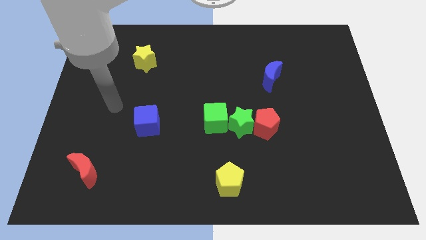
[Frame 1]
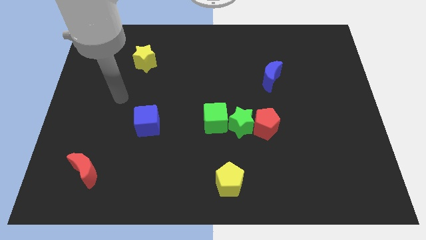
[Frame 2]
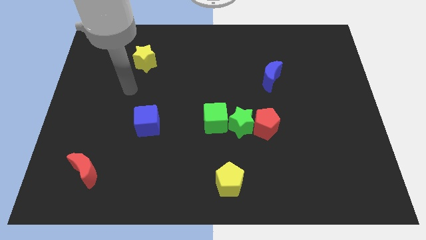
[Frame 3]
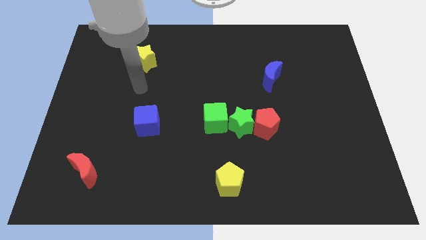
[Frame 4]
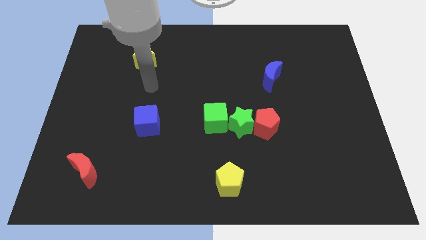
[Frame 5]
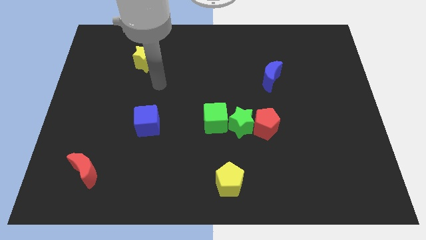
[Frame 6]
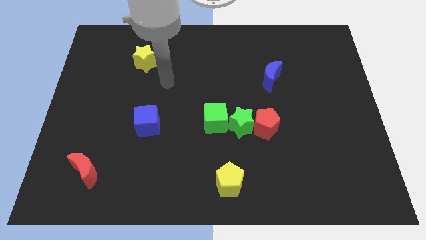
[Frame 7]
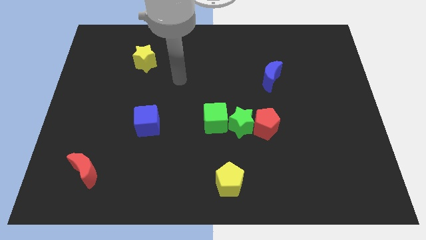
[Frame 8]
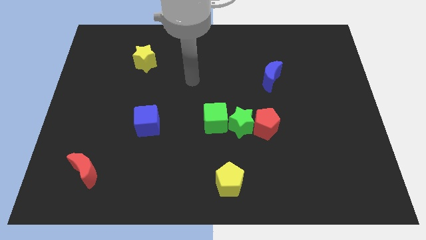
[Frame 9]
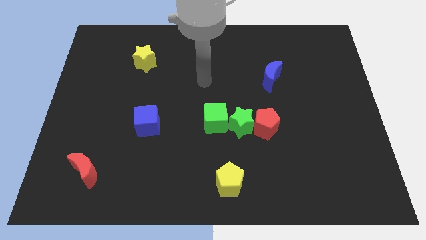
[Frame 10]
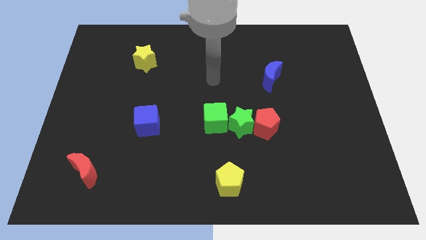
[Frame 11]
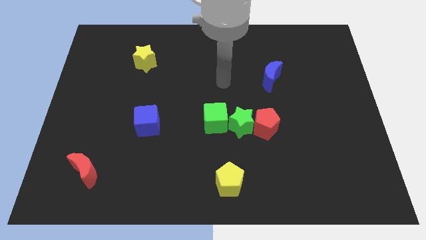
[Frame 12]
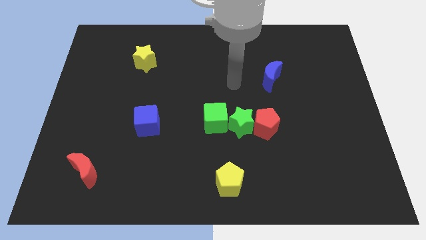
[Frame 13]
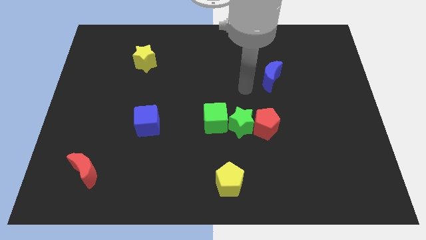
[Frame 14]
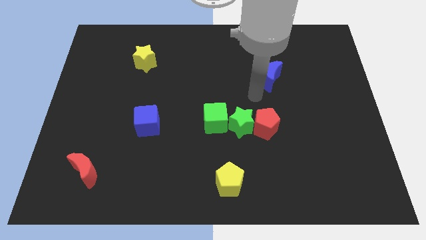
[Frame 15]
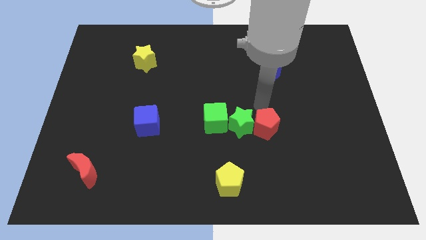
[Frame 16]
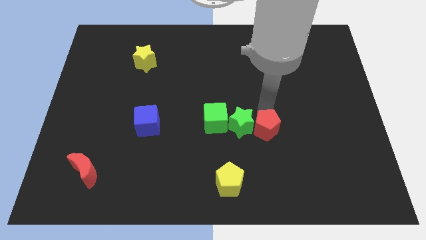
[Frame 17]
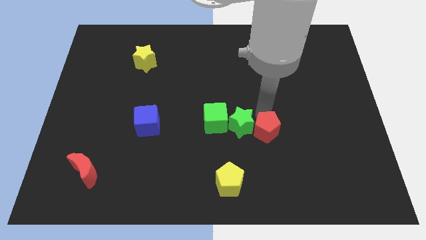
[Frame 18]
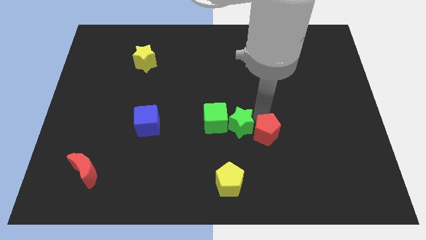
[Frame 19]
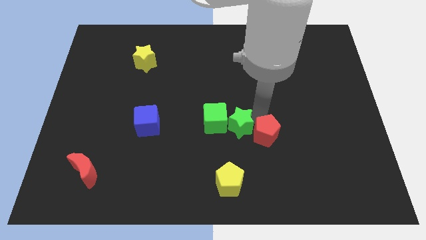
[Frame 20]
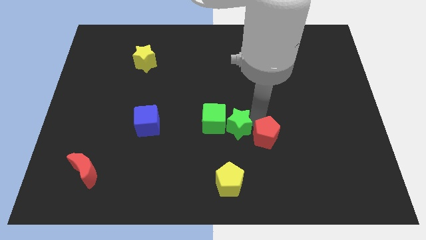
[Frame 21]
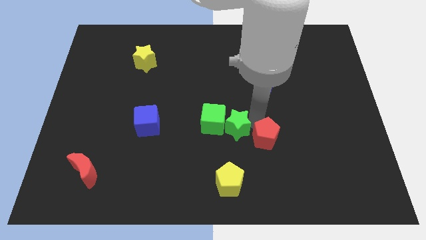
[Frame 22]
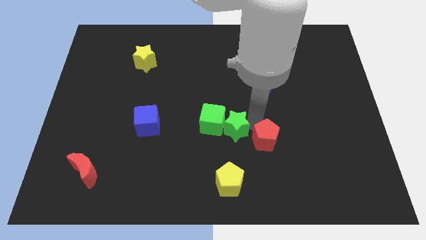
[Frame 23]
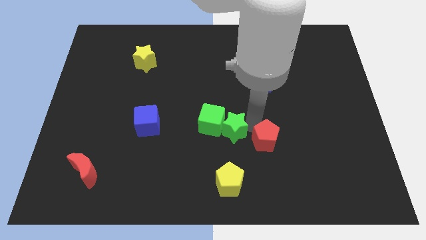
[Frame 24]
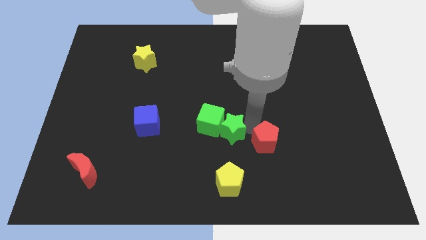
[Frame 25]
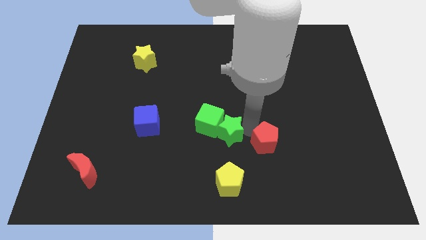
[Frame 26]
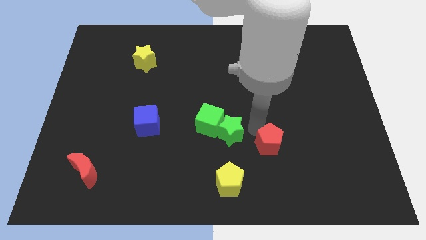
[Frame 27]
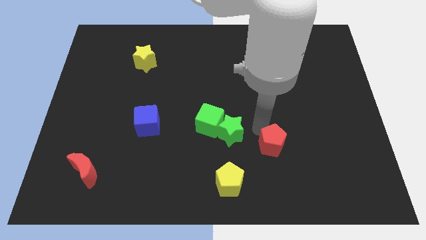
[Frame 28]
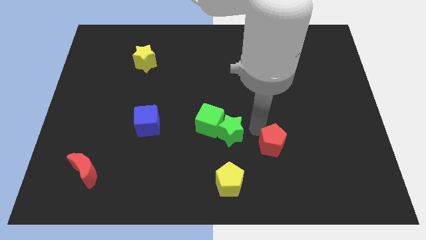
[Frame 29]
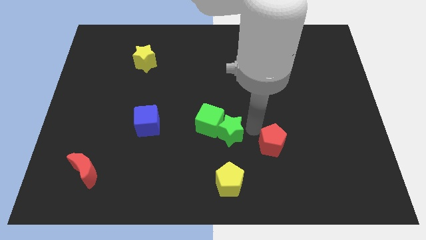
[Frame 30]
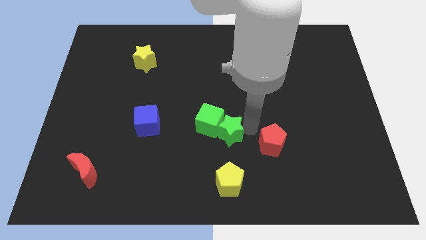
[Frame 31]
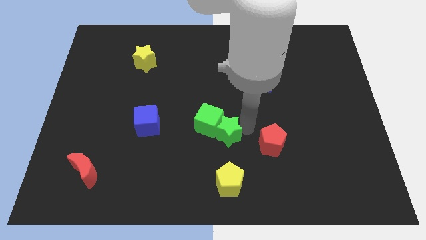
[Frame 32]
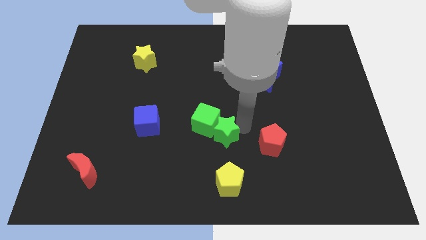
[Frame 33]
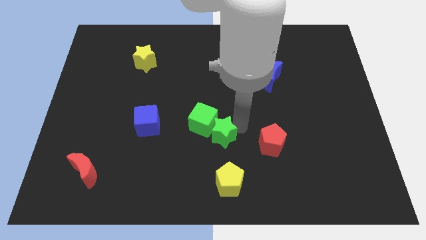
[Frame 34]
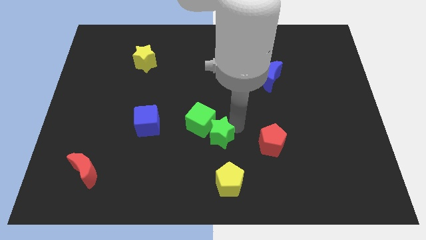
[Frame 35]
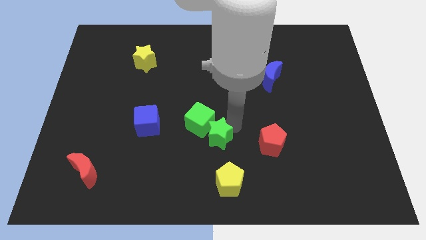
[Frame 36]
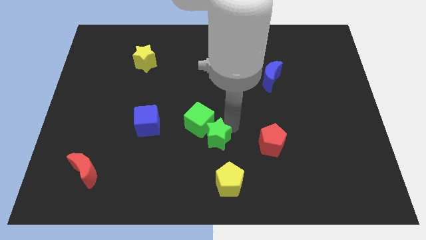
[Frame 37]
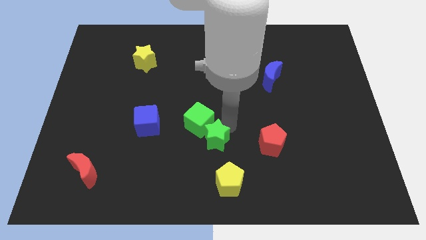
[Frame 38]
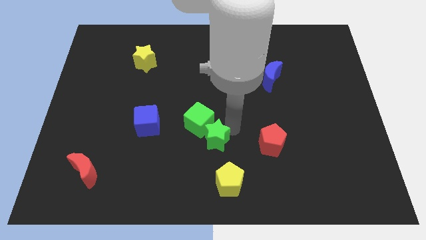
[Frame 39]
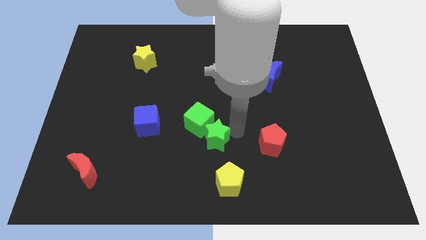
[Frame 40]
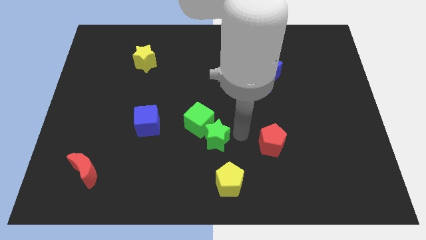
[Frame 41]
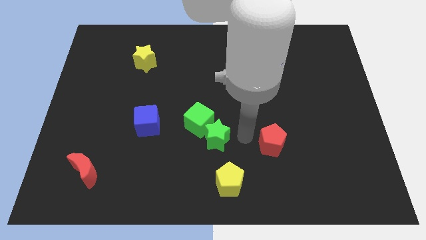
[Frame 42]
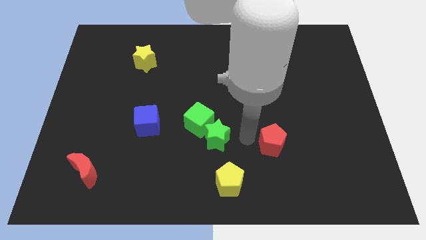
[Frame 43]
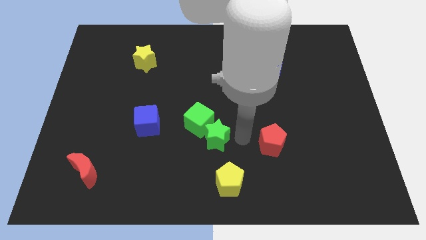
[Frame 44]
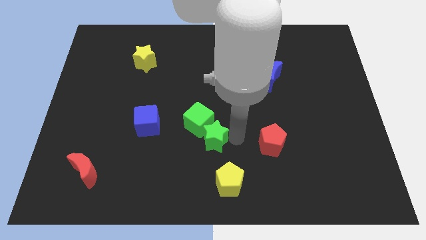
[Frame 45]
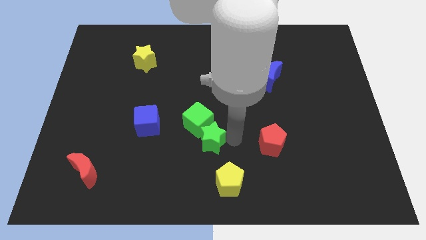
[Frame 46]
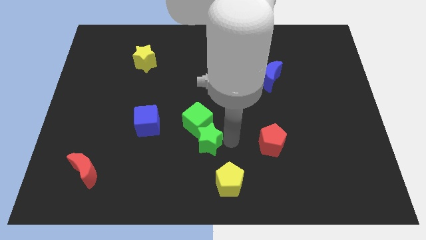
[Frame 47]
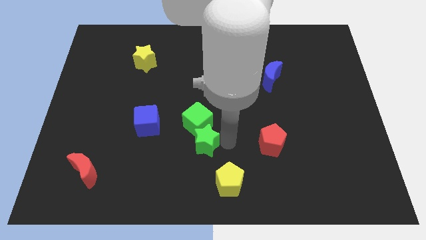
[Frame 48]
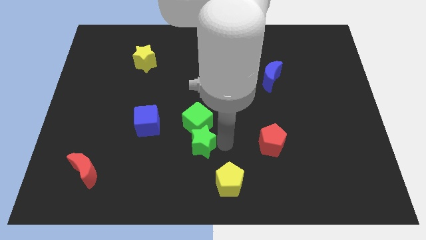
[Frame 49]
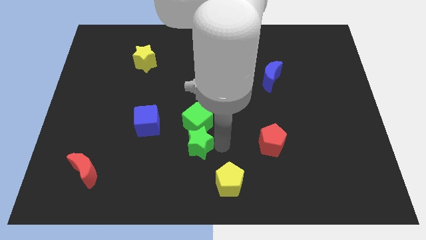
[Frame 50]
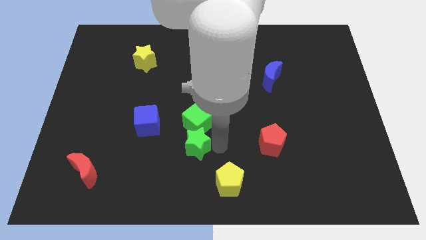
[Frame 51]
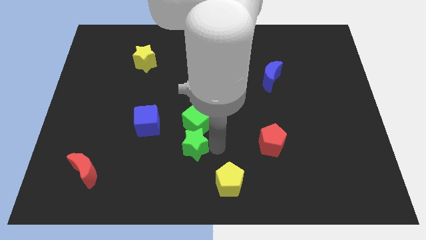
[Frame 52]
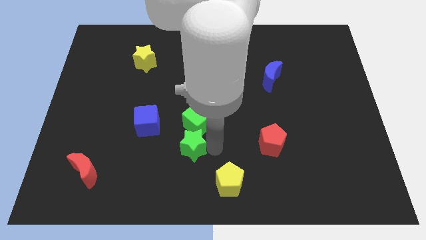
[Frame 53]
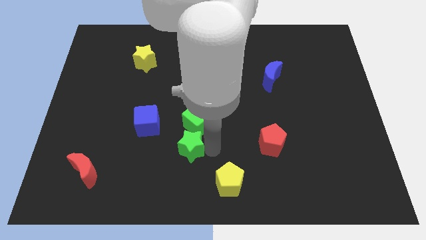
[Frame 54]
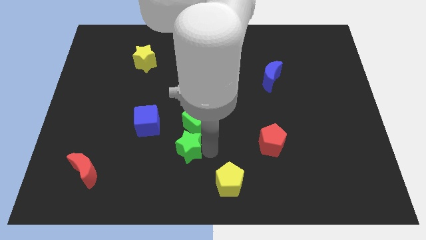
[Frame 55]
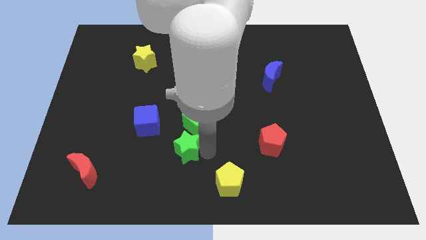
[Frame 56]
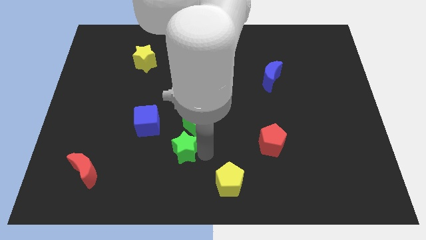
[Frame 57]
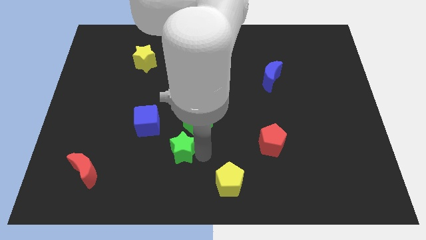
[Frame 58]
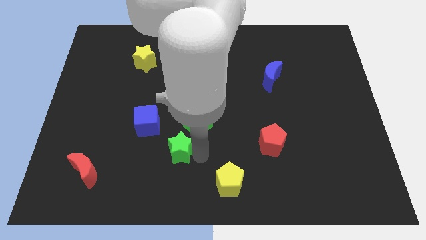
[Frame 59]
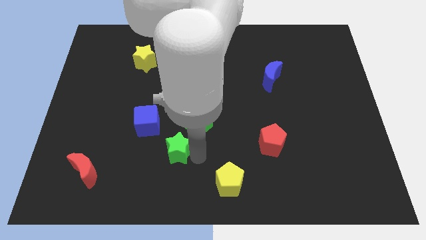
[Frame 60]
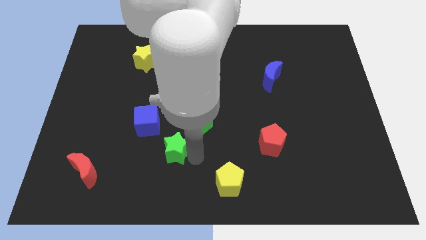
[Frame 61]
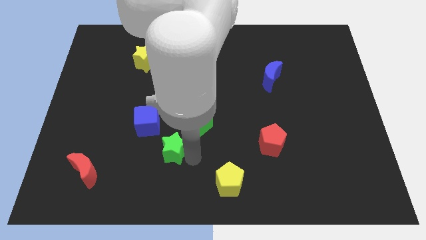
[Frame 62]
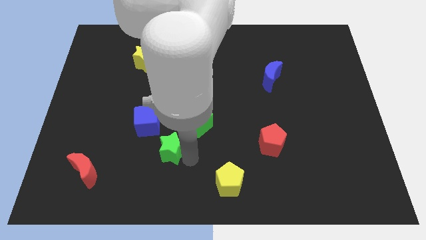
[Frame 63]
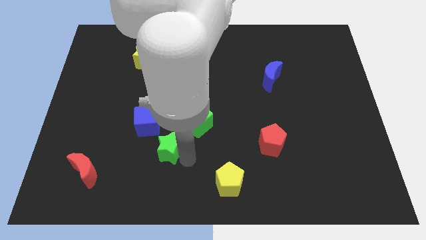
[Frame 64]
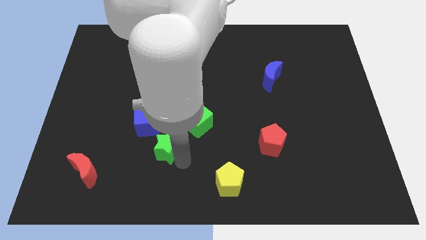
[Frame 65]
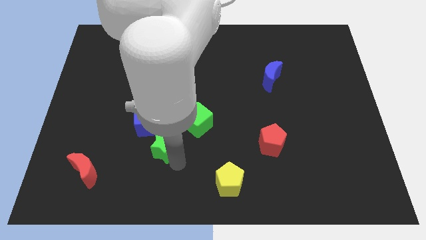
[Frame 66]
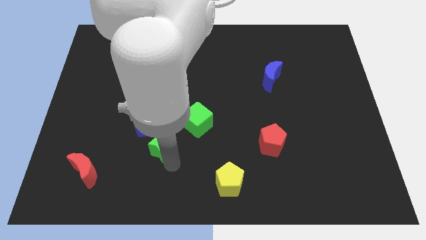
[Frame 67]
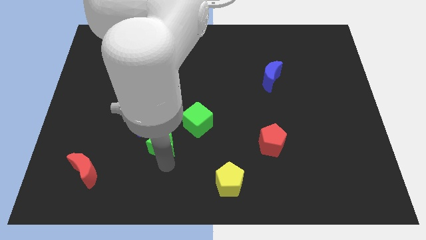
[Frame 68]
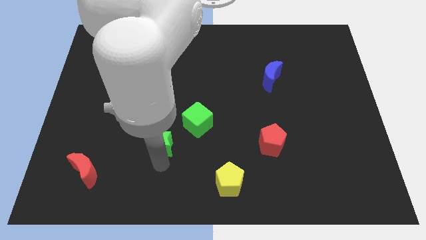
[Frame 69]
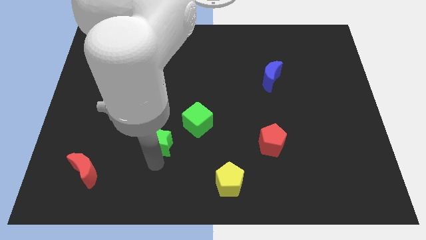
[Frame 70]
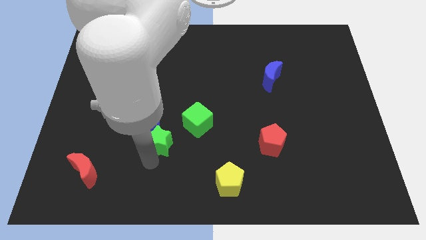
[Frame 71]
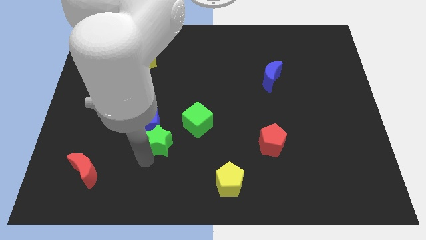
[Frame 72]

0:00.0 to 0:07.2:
move the green star towards the blue cube

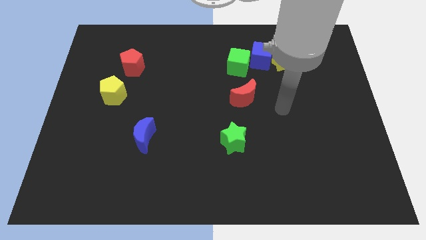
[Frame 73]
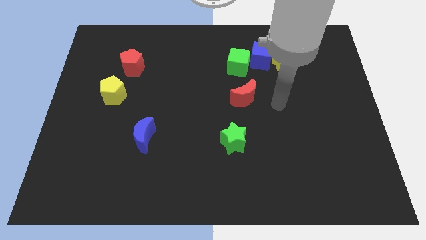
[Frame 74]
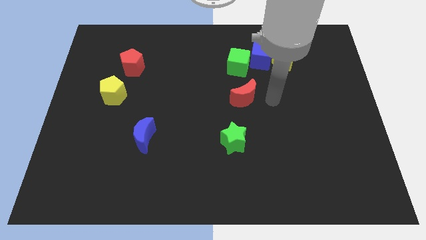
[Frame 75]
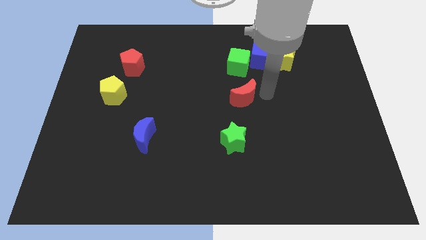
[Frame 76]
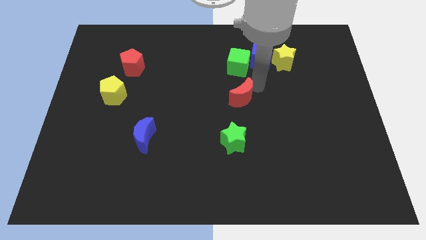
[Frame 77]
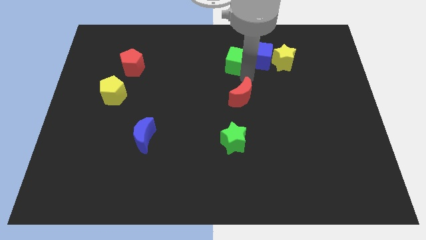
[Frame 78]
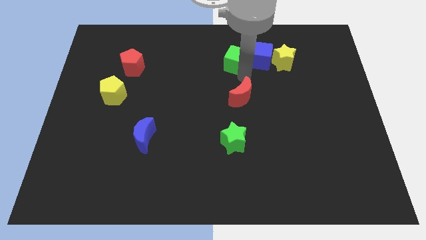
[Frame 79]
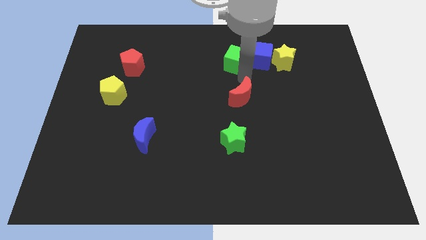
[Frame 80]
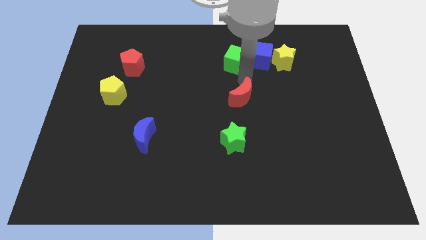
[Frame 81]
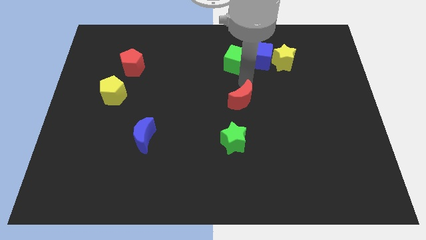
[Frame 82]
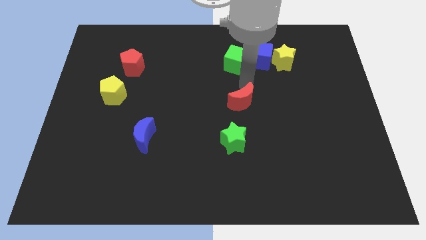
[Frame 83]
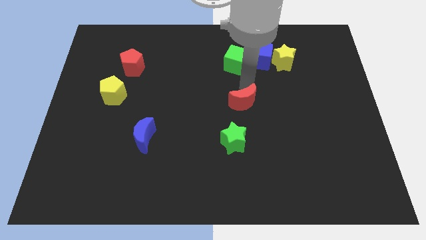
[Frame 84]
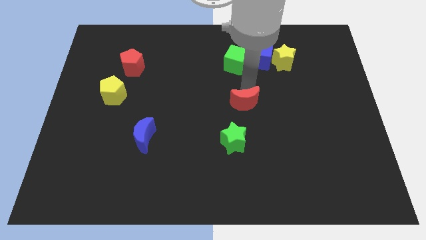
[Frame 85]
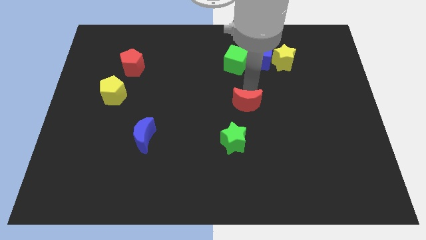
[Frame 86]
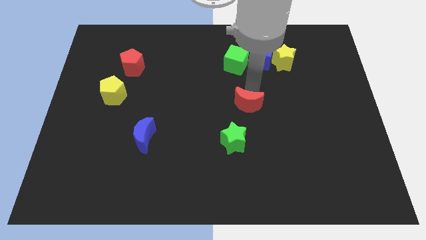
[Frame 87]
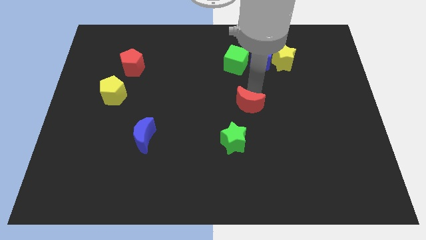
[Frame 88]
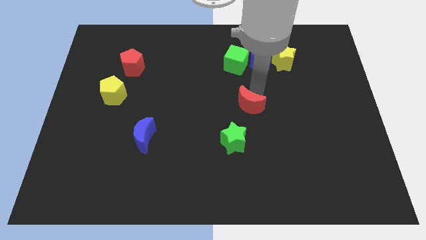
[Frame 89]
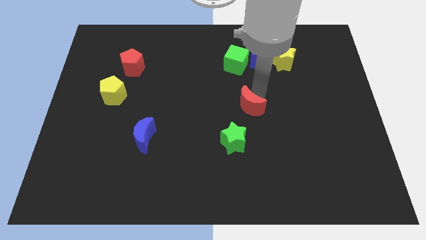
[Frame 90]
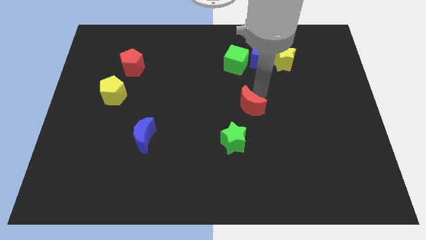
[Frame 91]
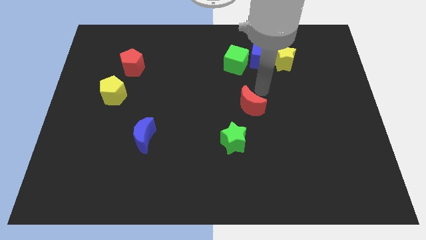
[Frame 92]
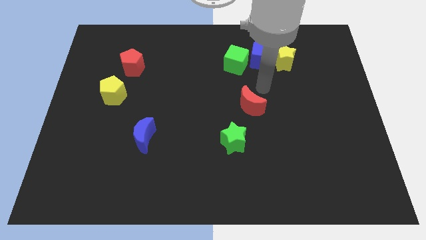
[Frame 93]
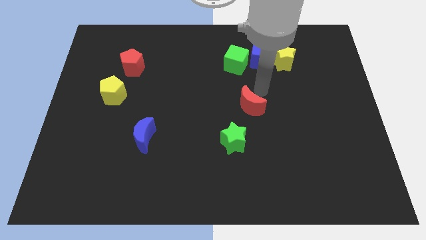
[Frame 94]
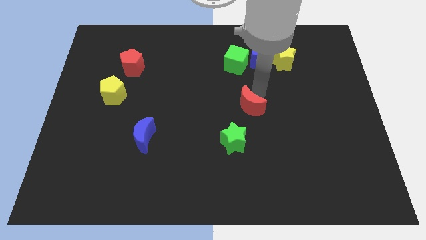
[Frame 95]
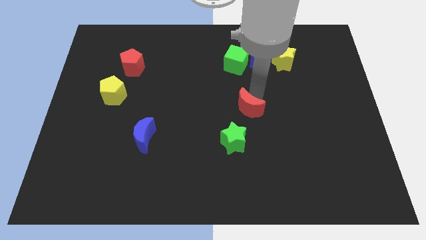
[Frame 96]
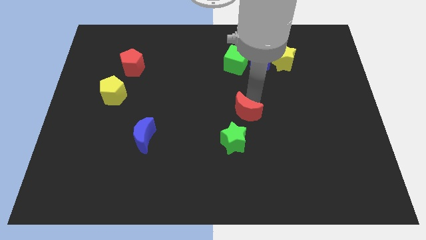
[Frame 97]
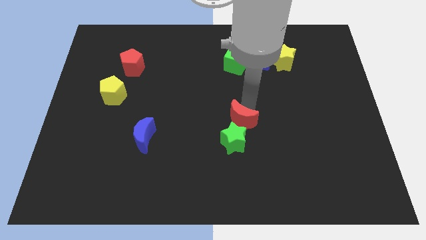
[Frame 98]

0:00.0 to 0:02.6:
move the red moon close to the green star
